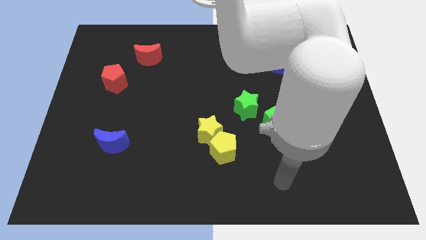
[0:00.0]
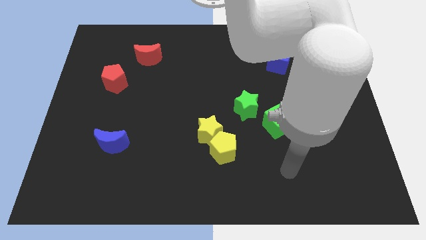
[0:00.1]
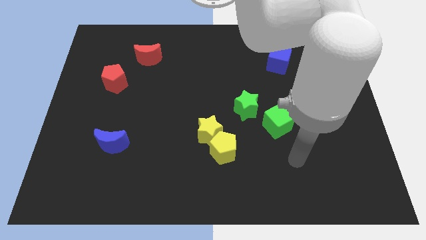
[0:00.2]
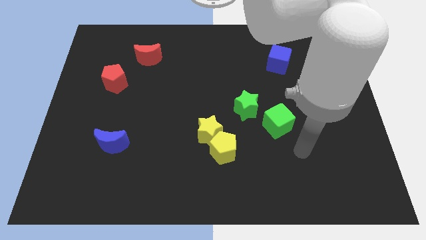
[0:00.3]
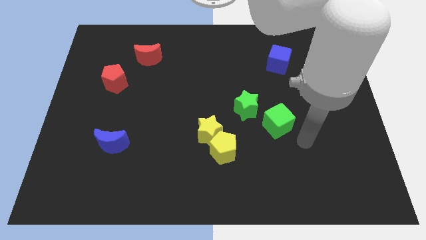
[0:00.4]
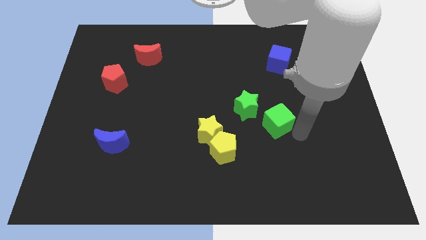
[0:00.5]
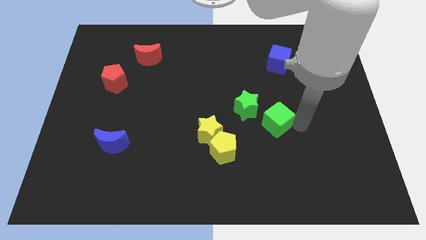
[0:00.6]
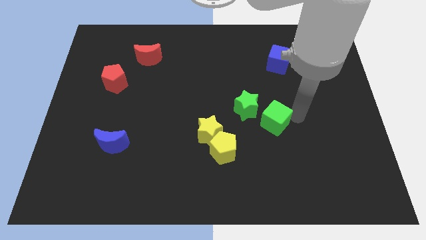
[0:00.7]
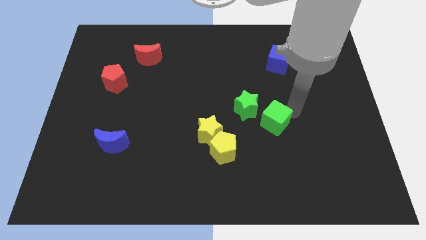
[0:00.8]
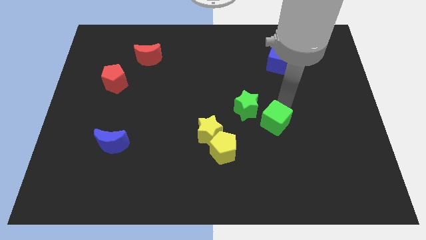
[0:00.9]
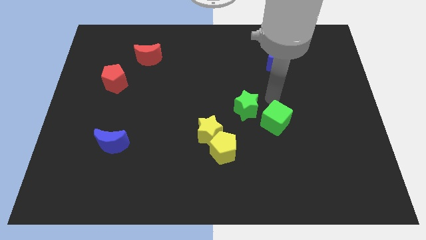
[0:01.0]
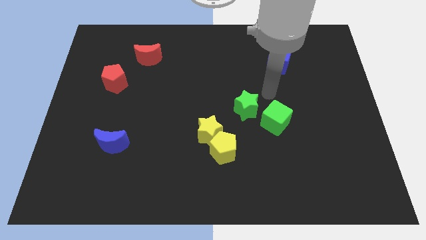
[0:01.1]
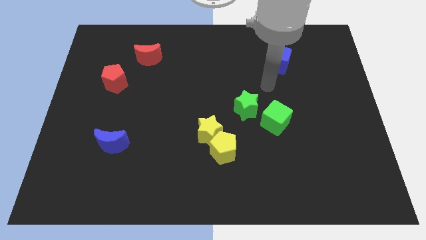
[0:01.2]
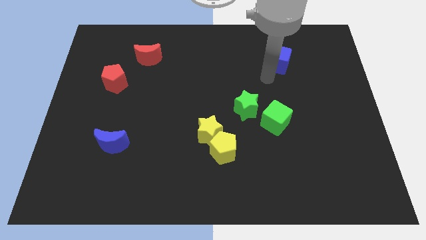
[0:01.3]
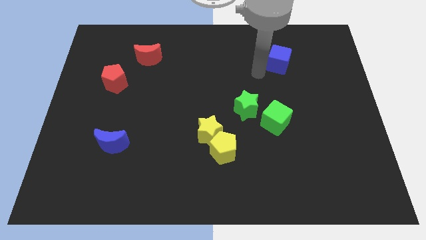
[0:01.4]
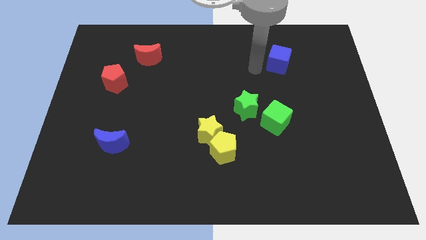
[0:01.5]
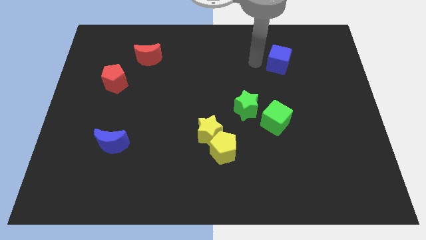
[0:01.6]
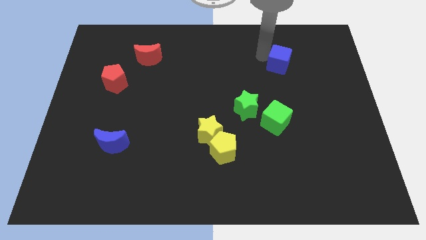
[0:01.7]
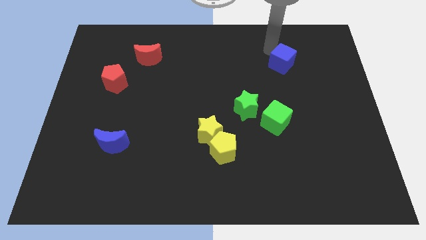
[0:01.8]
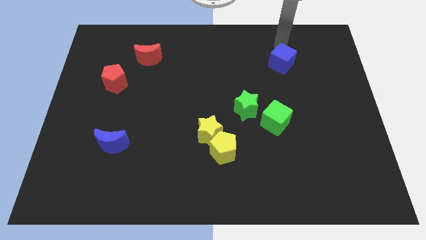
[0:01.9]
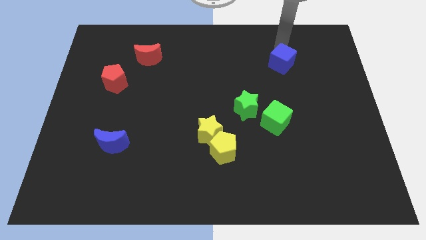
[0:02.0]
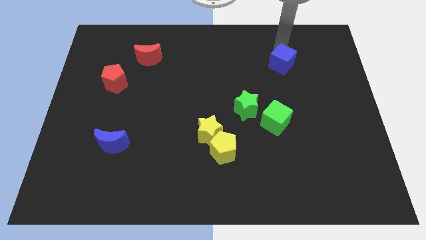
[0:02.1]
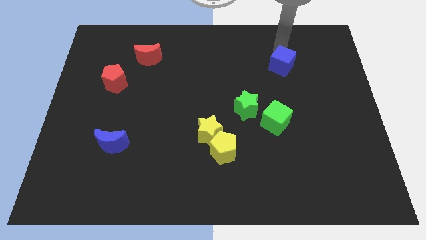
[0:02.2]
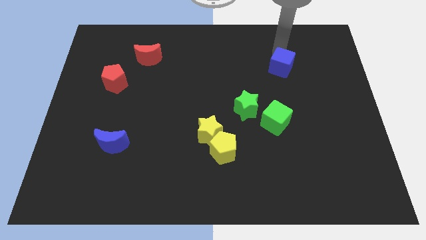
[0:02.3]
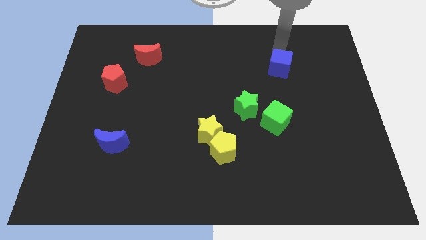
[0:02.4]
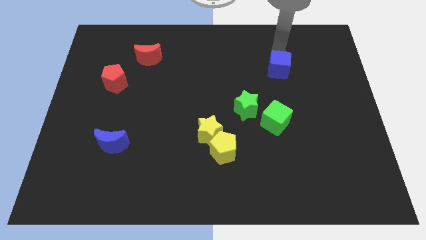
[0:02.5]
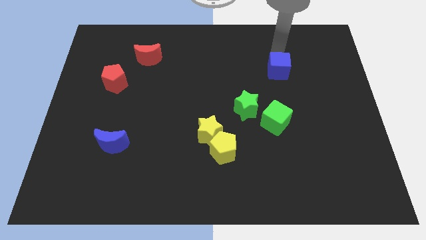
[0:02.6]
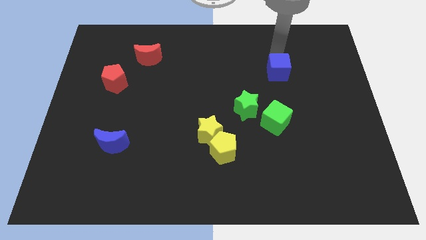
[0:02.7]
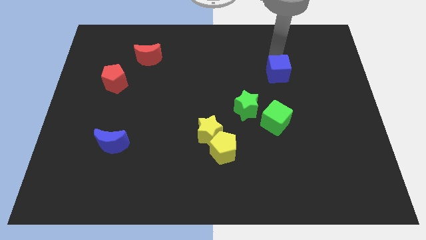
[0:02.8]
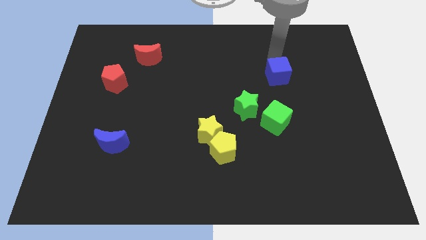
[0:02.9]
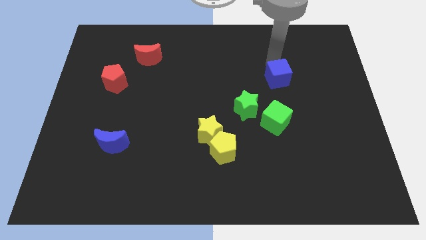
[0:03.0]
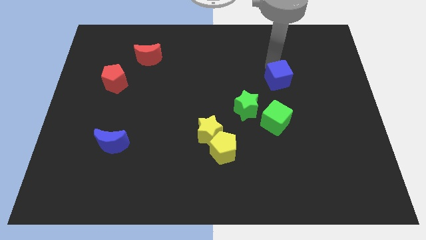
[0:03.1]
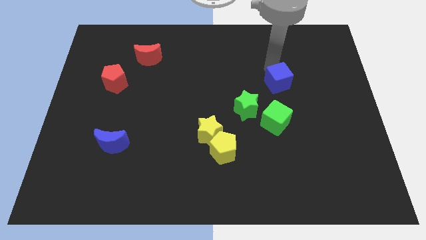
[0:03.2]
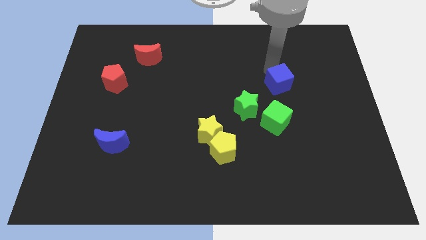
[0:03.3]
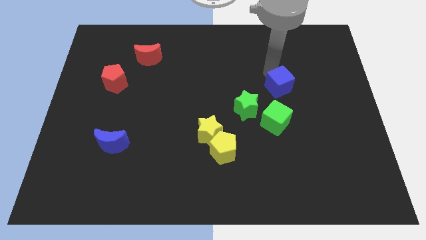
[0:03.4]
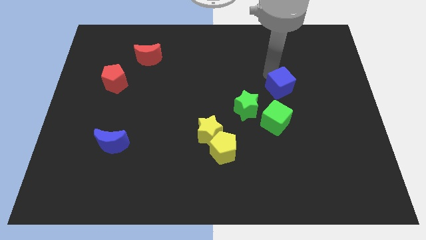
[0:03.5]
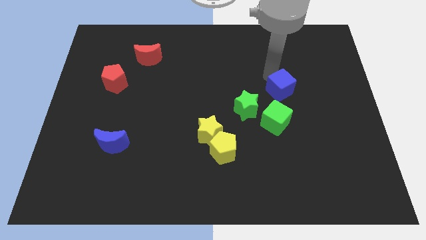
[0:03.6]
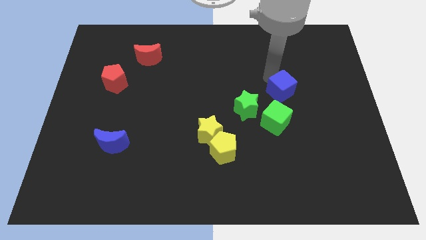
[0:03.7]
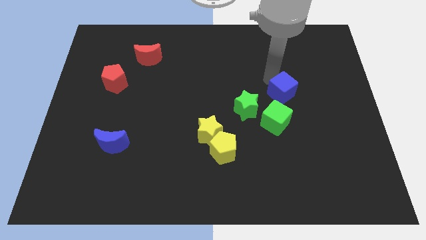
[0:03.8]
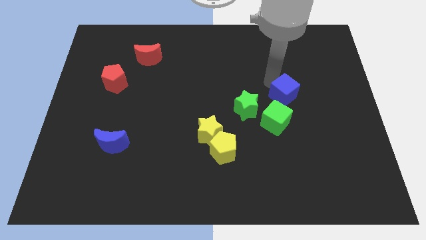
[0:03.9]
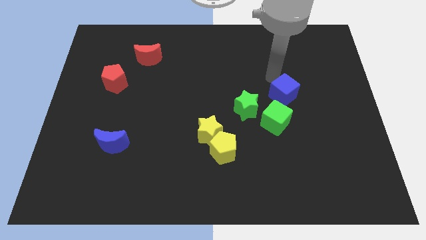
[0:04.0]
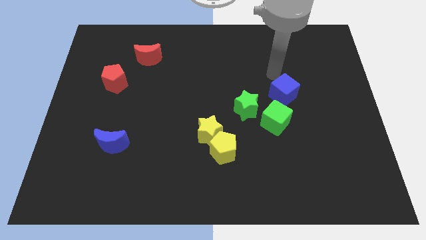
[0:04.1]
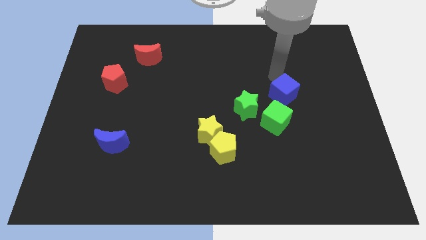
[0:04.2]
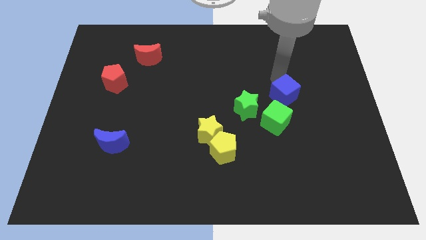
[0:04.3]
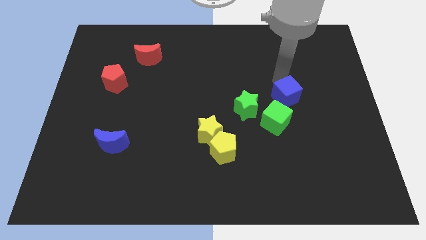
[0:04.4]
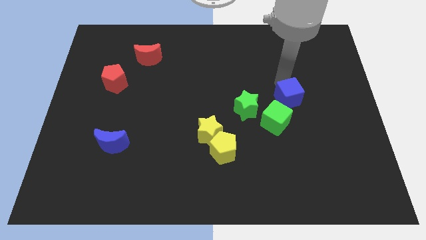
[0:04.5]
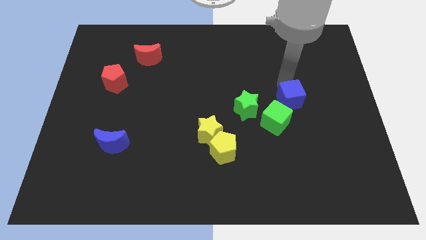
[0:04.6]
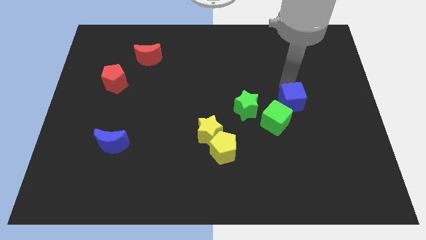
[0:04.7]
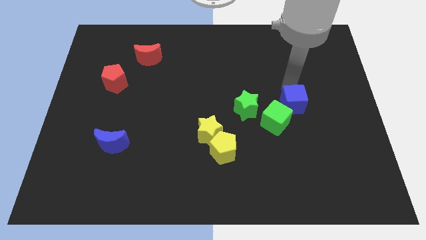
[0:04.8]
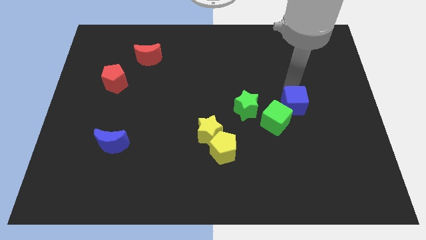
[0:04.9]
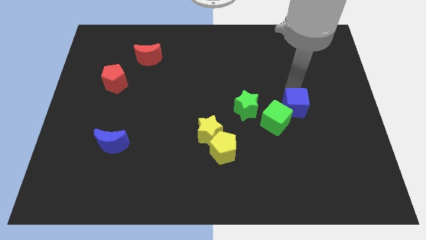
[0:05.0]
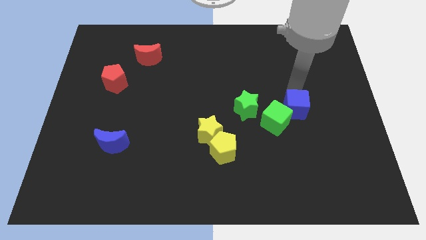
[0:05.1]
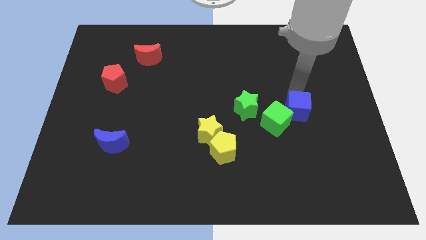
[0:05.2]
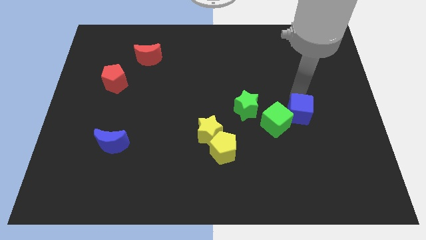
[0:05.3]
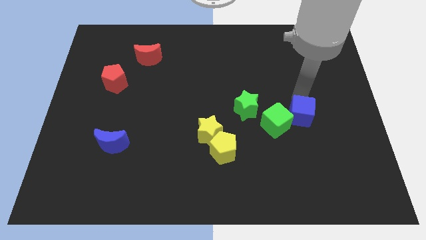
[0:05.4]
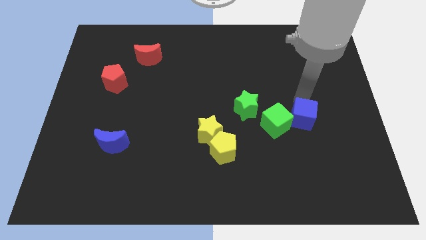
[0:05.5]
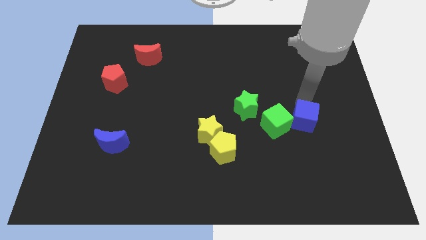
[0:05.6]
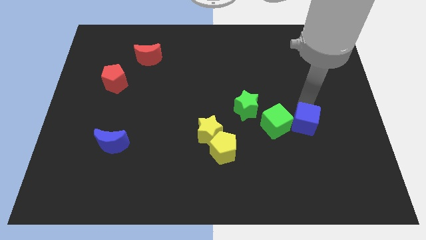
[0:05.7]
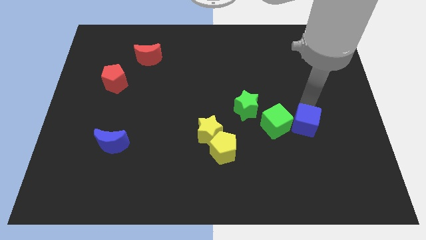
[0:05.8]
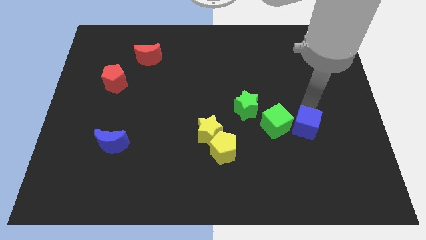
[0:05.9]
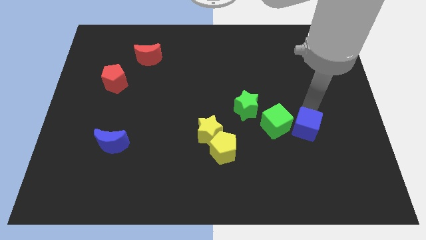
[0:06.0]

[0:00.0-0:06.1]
push the blue cube down

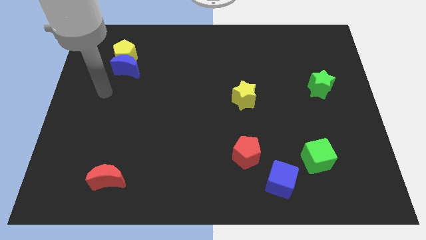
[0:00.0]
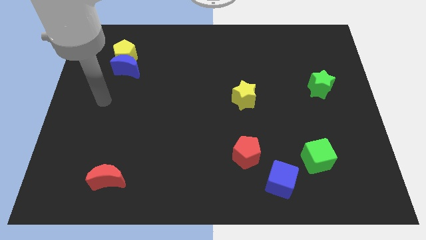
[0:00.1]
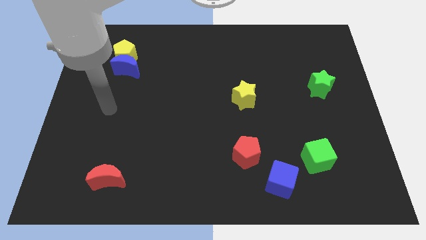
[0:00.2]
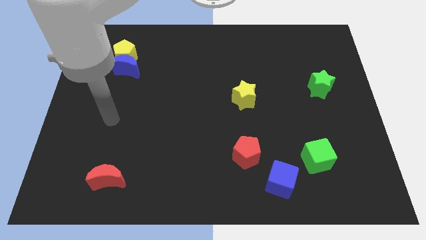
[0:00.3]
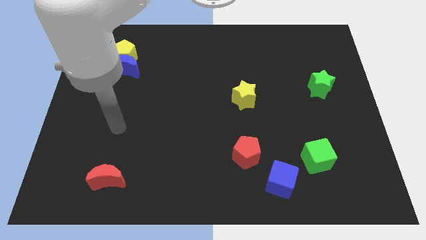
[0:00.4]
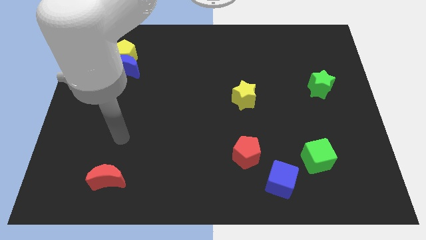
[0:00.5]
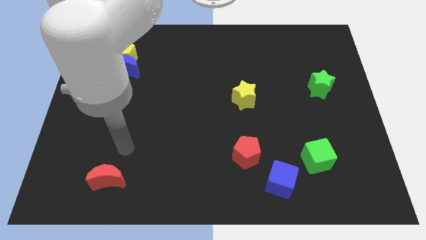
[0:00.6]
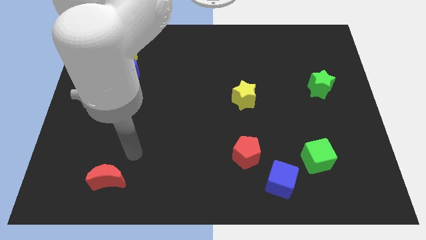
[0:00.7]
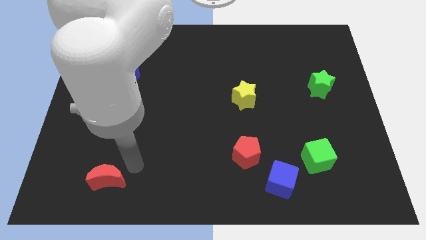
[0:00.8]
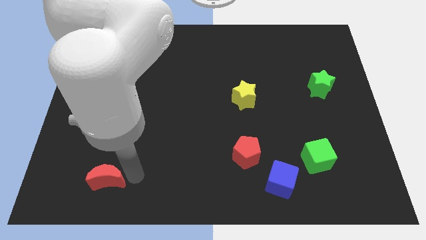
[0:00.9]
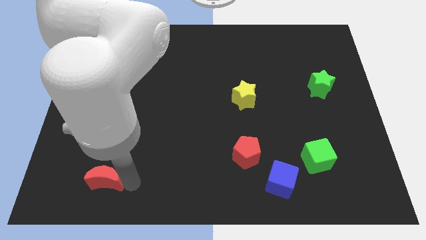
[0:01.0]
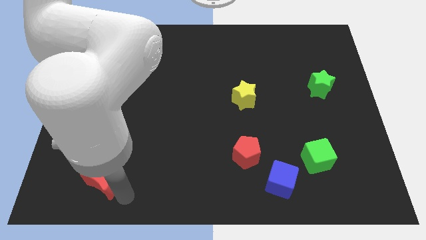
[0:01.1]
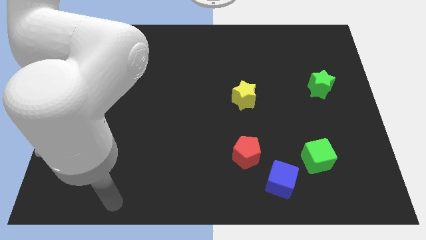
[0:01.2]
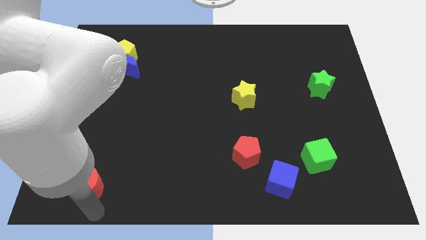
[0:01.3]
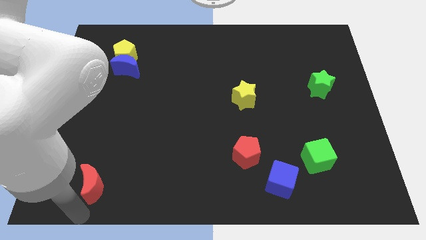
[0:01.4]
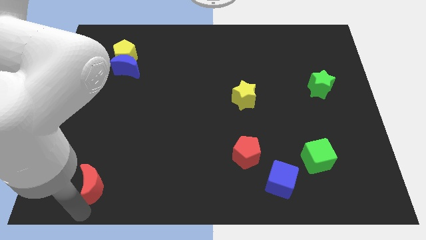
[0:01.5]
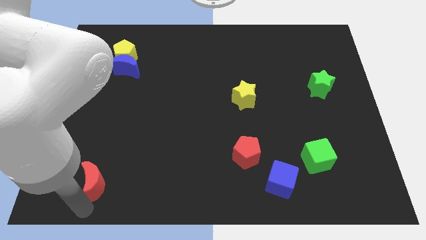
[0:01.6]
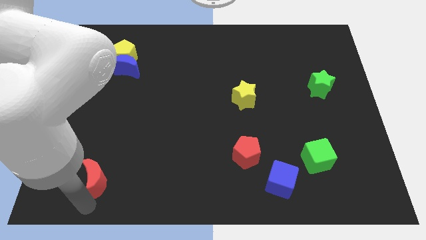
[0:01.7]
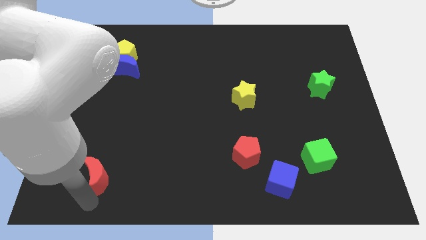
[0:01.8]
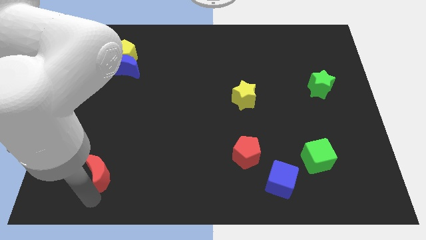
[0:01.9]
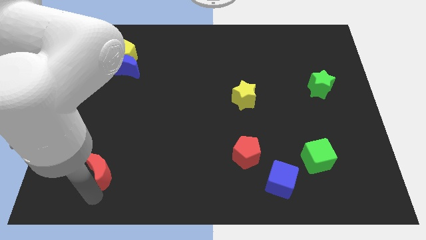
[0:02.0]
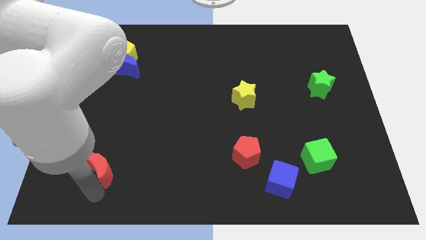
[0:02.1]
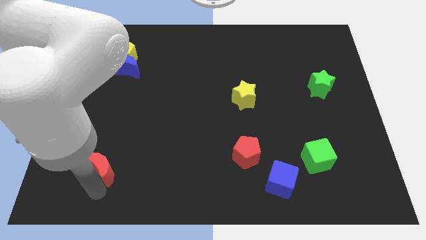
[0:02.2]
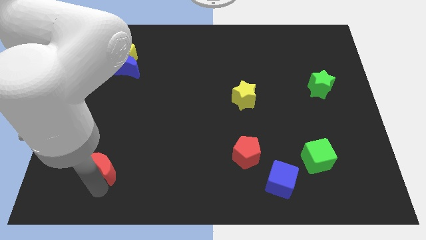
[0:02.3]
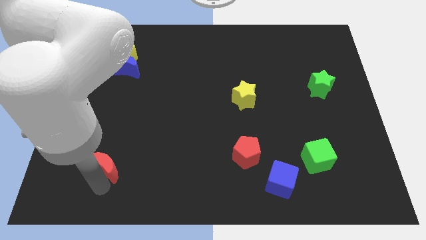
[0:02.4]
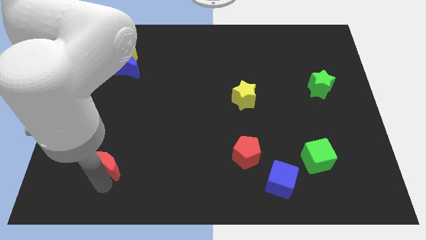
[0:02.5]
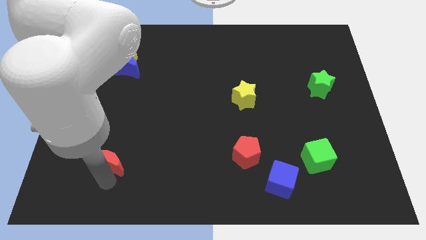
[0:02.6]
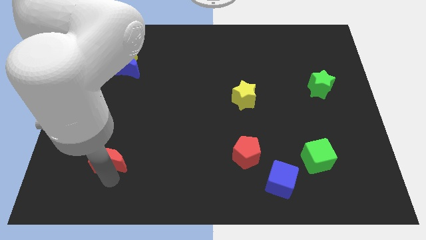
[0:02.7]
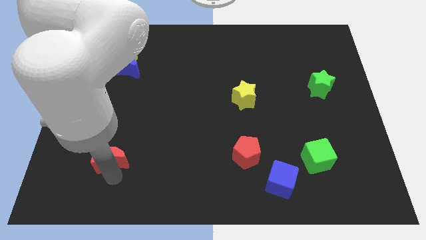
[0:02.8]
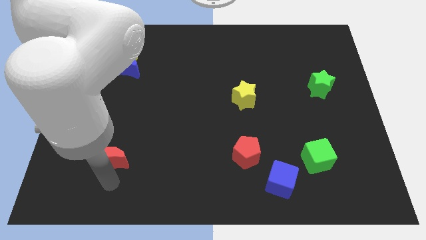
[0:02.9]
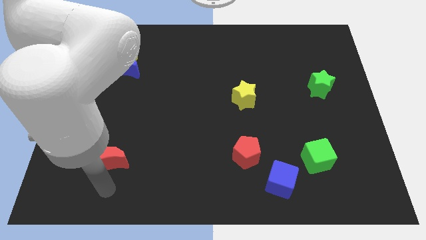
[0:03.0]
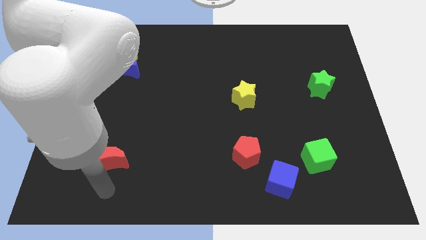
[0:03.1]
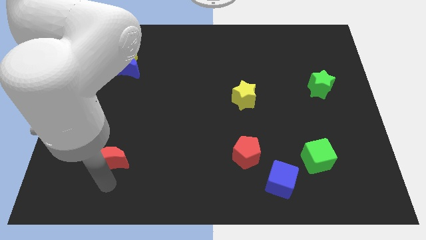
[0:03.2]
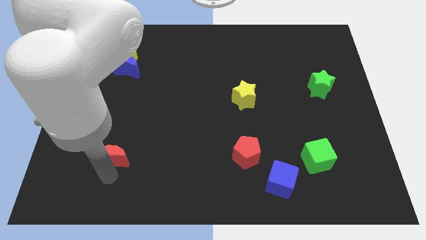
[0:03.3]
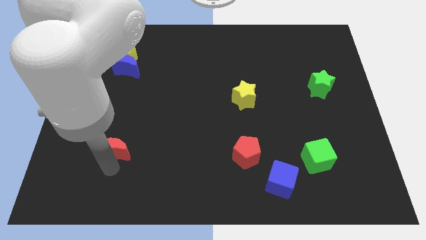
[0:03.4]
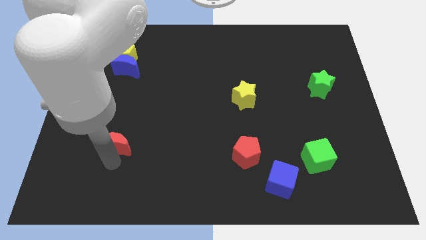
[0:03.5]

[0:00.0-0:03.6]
slightly push the red moon up
